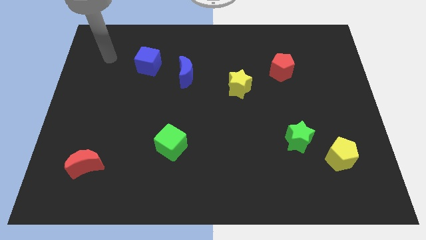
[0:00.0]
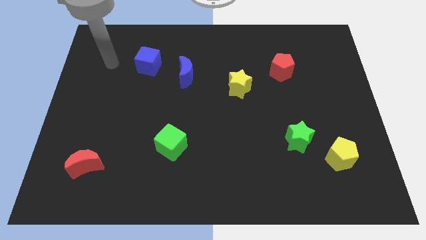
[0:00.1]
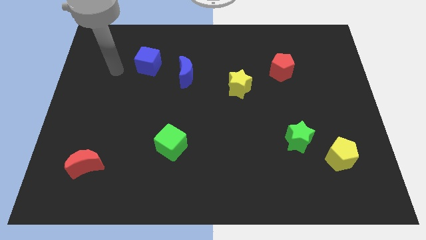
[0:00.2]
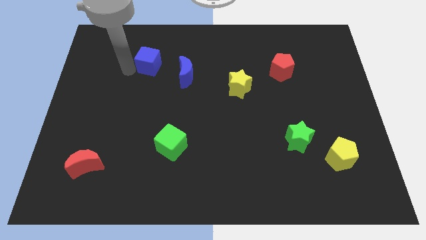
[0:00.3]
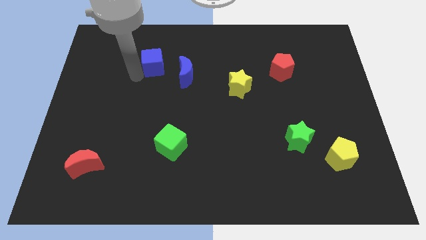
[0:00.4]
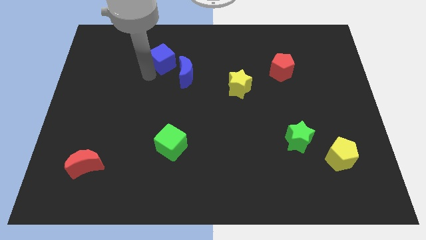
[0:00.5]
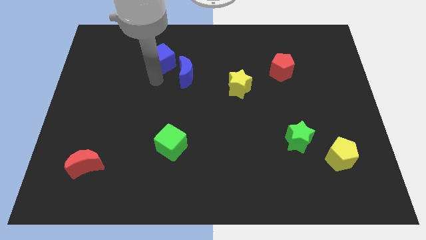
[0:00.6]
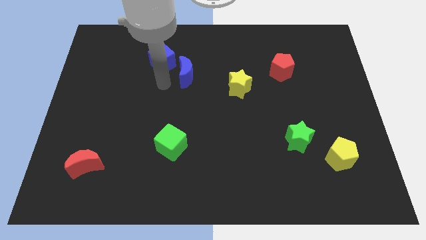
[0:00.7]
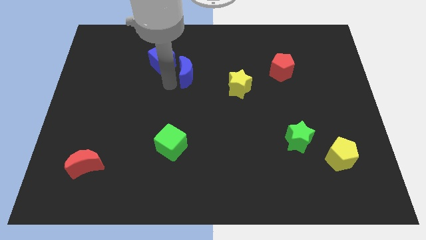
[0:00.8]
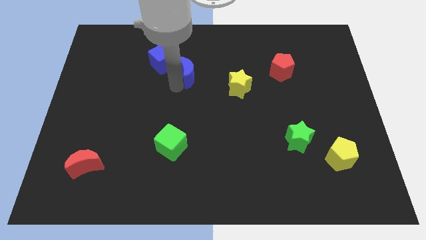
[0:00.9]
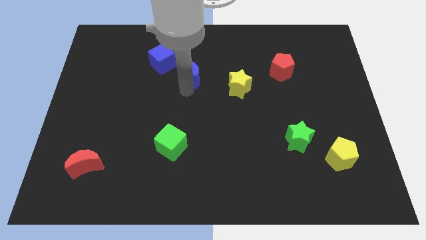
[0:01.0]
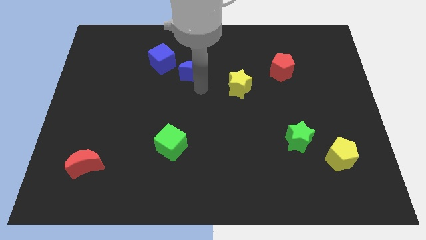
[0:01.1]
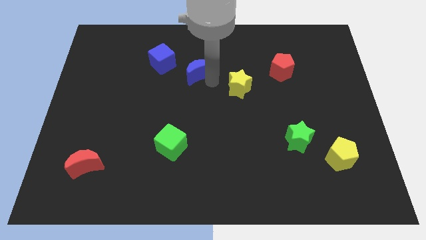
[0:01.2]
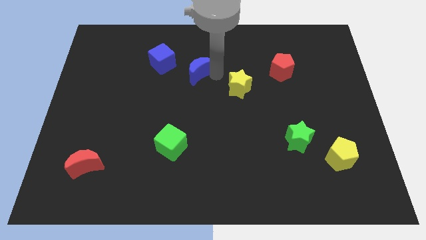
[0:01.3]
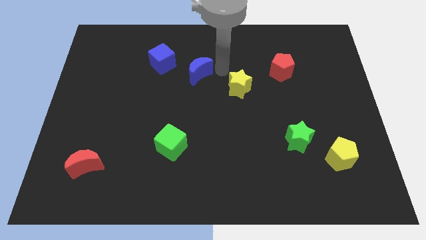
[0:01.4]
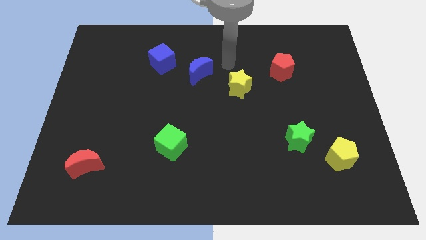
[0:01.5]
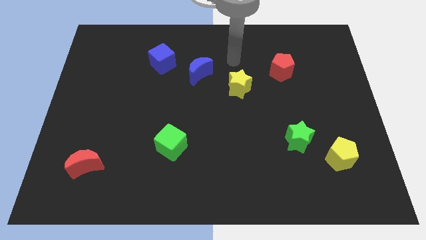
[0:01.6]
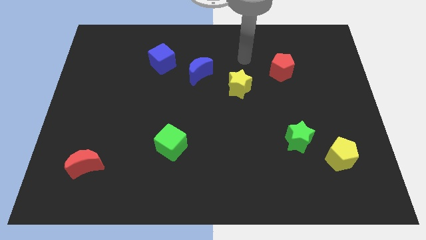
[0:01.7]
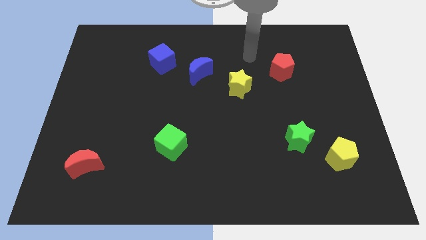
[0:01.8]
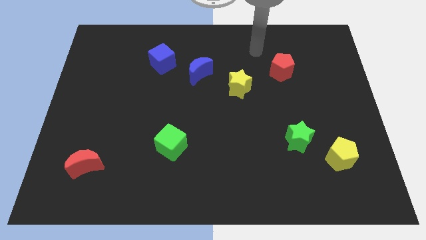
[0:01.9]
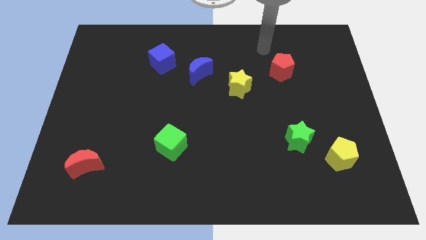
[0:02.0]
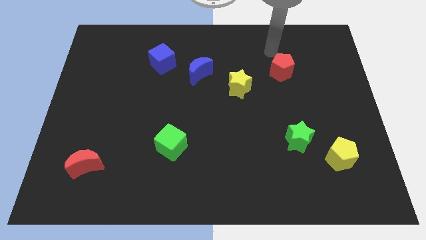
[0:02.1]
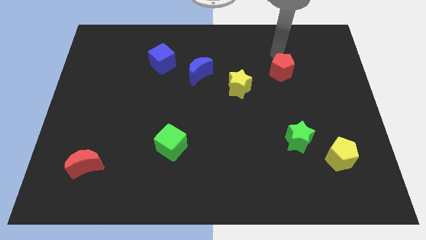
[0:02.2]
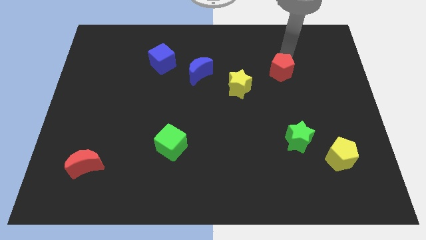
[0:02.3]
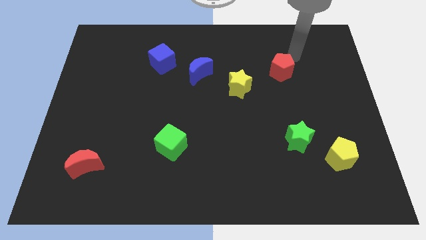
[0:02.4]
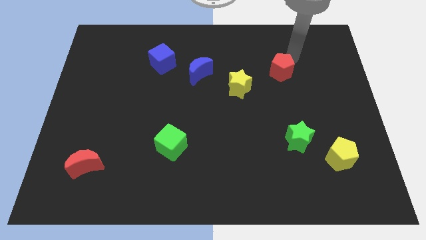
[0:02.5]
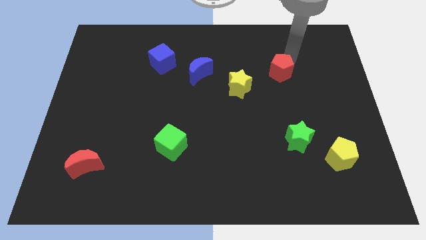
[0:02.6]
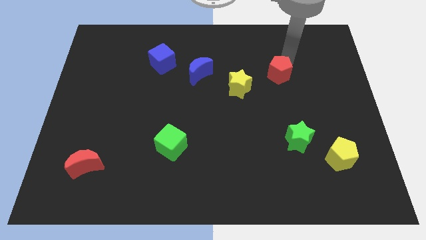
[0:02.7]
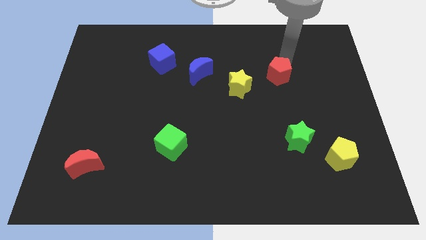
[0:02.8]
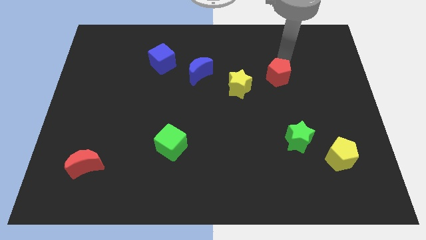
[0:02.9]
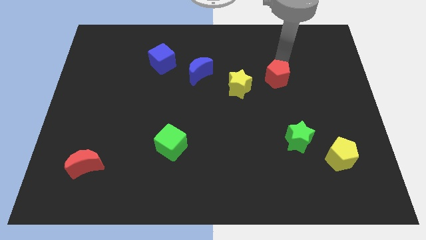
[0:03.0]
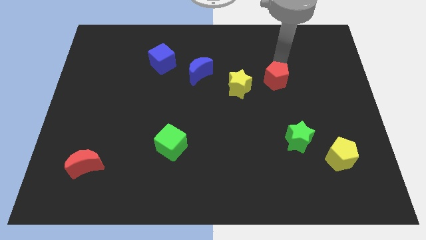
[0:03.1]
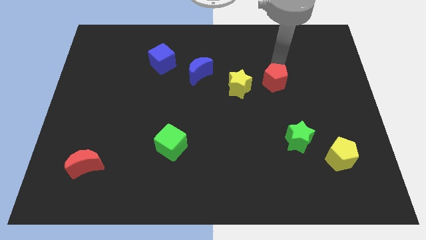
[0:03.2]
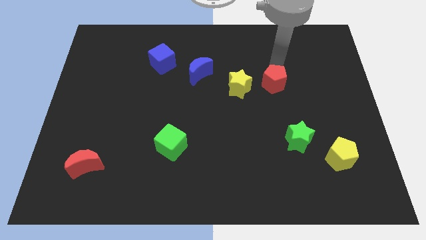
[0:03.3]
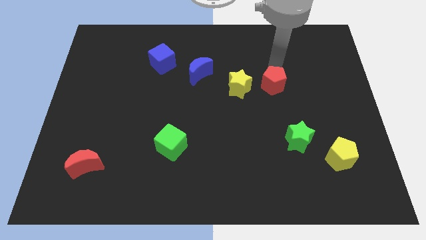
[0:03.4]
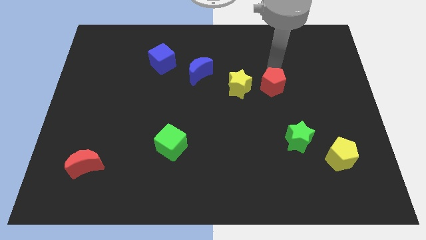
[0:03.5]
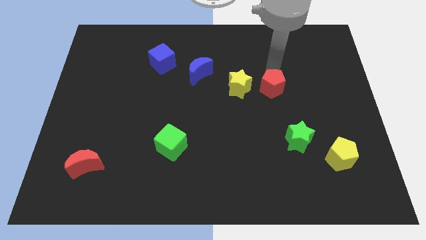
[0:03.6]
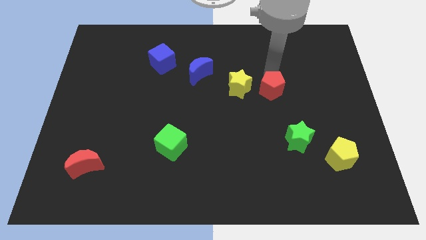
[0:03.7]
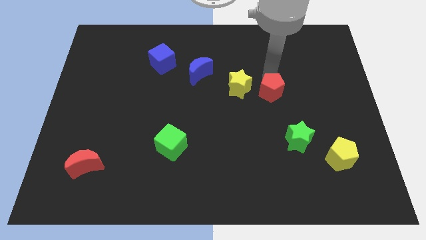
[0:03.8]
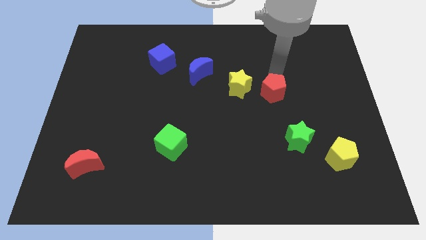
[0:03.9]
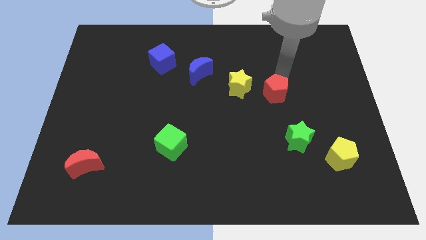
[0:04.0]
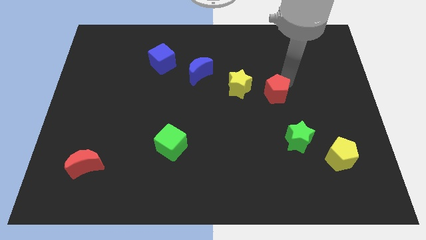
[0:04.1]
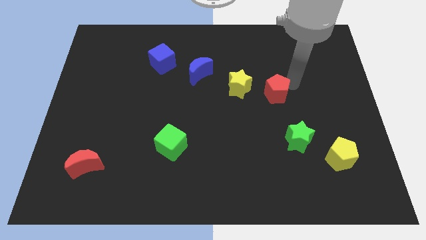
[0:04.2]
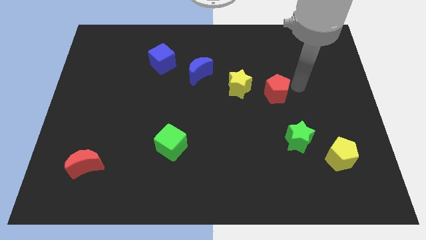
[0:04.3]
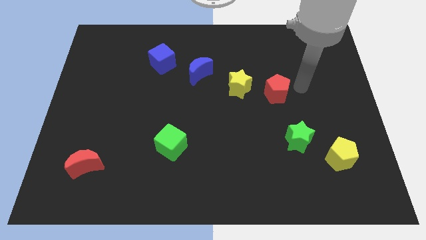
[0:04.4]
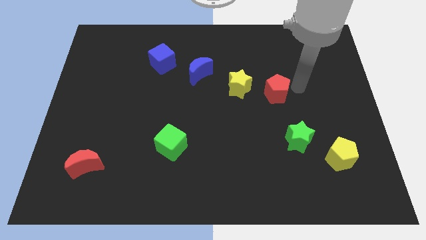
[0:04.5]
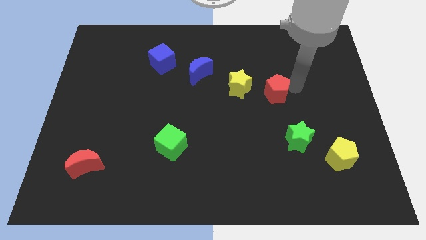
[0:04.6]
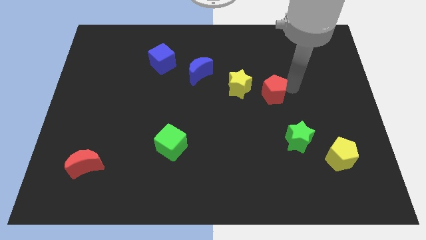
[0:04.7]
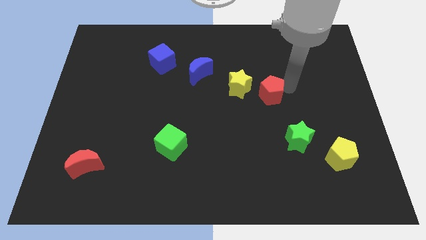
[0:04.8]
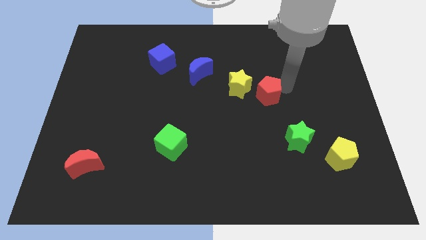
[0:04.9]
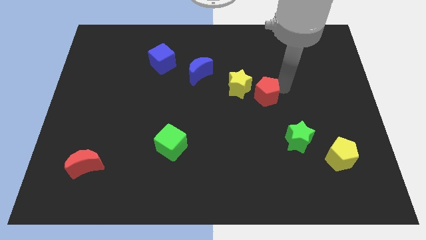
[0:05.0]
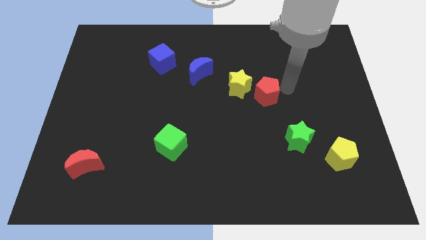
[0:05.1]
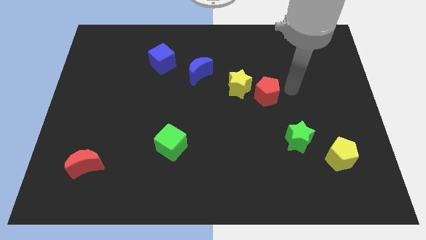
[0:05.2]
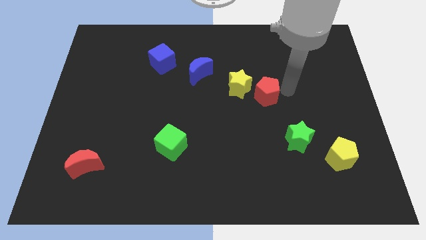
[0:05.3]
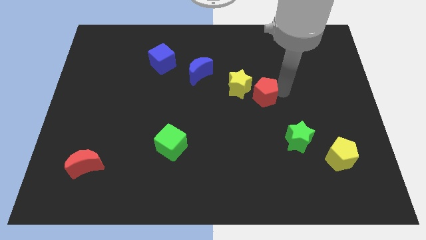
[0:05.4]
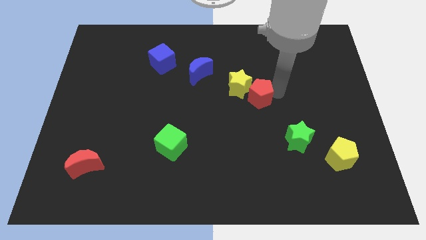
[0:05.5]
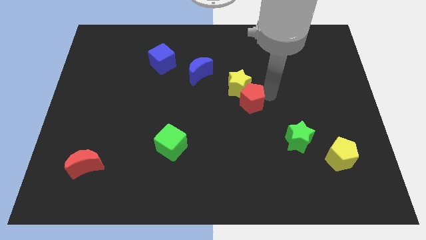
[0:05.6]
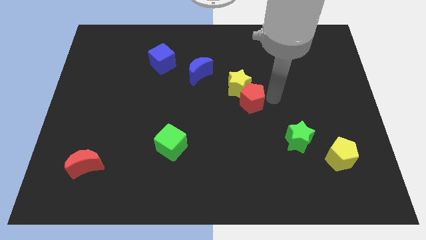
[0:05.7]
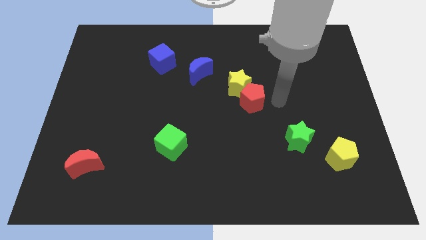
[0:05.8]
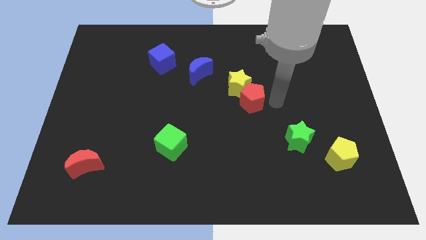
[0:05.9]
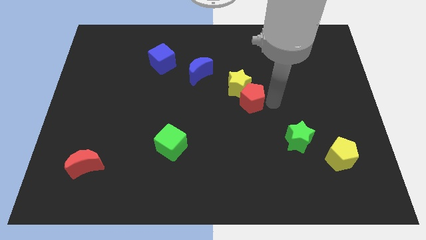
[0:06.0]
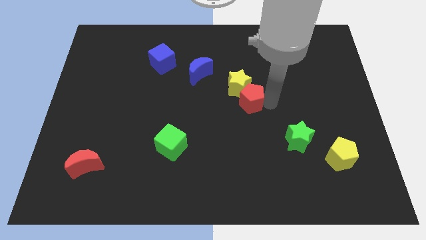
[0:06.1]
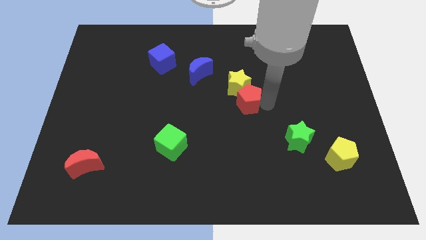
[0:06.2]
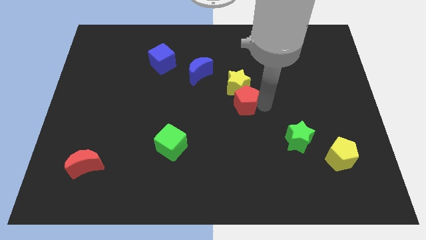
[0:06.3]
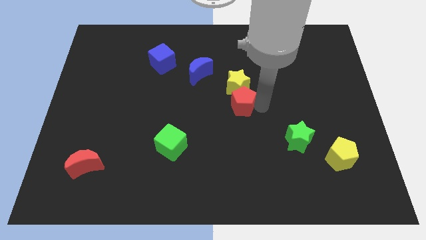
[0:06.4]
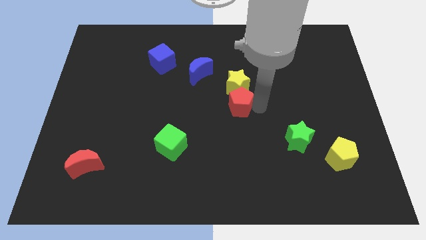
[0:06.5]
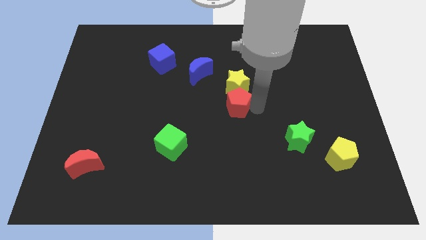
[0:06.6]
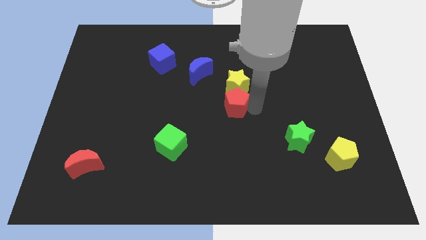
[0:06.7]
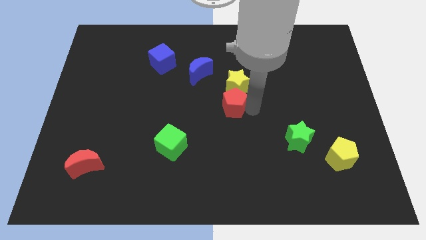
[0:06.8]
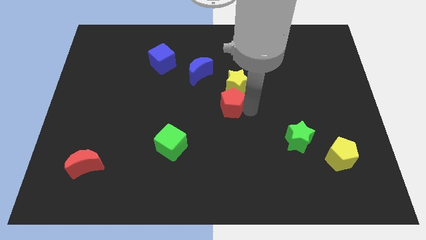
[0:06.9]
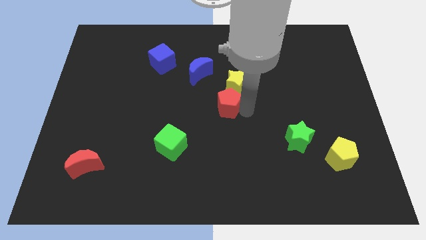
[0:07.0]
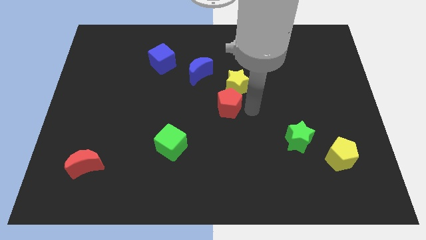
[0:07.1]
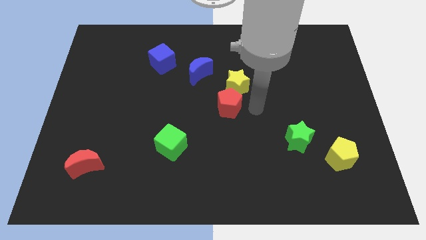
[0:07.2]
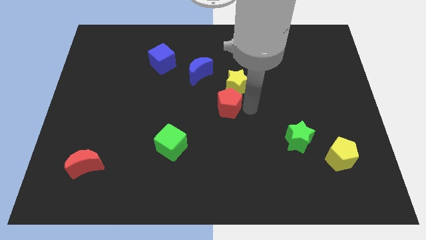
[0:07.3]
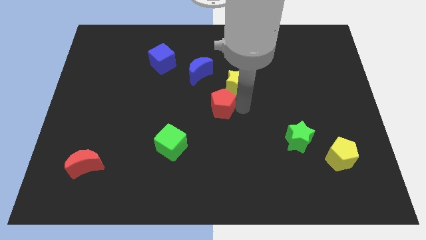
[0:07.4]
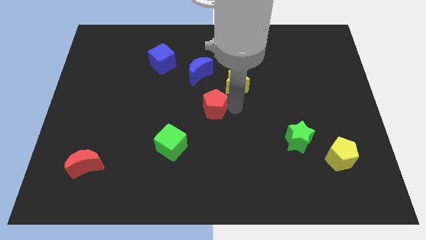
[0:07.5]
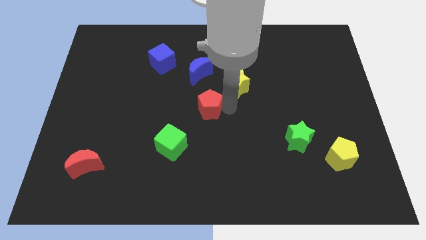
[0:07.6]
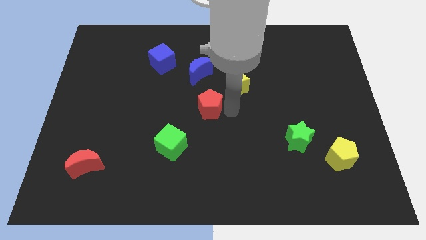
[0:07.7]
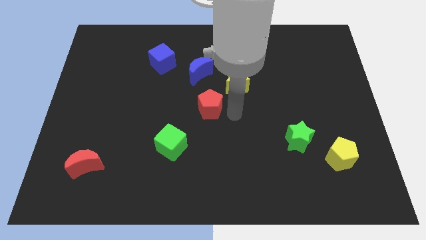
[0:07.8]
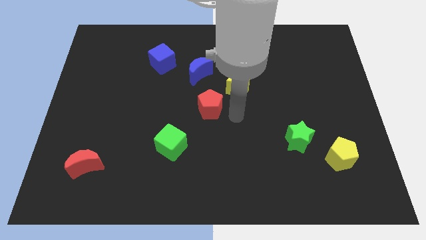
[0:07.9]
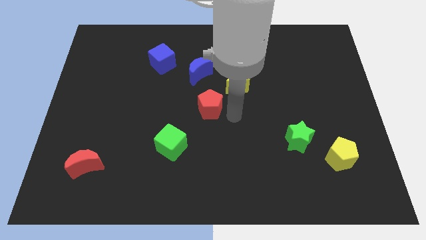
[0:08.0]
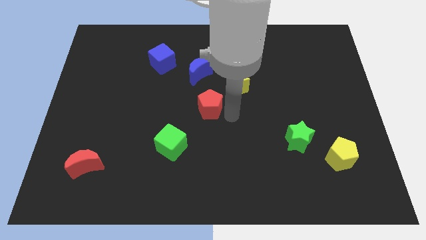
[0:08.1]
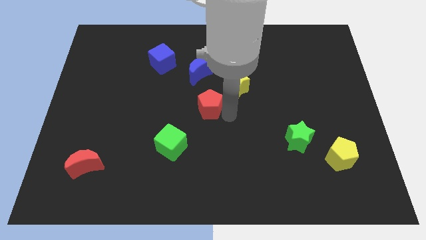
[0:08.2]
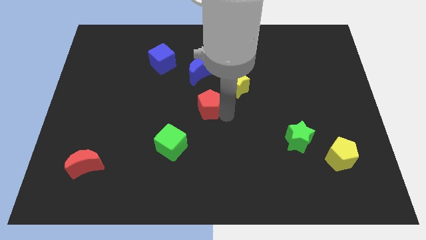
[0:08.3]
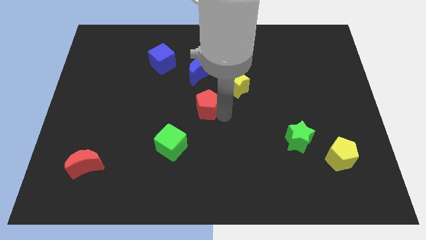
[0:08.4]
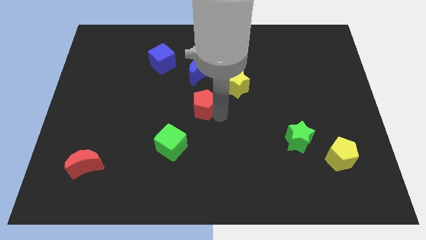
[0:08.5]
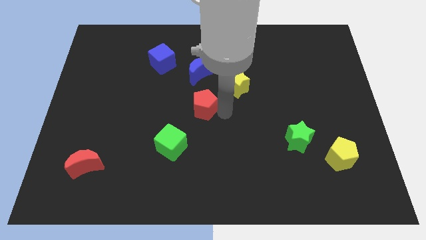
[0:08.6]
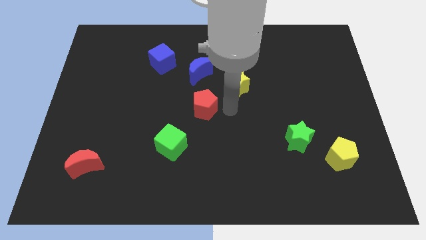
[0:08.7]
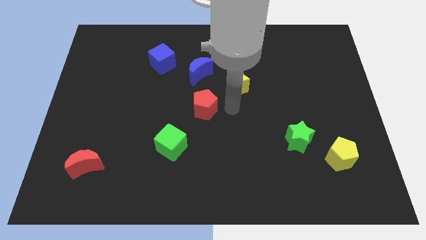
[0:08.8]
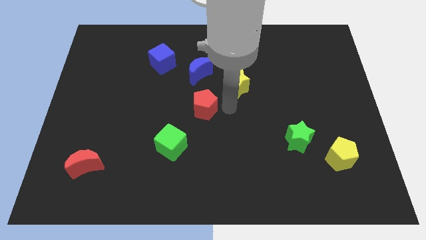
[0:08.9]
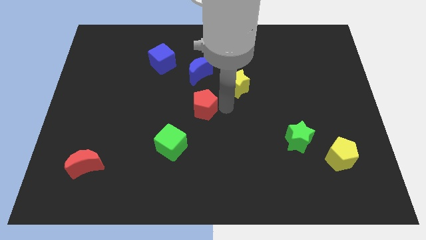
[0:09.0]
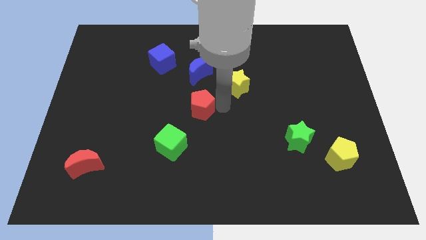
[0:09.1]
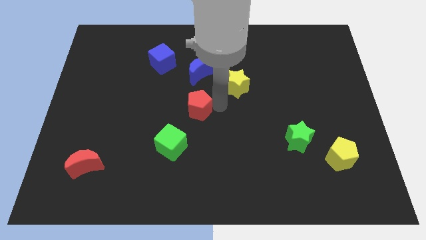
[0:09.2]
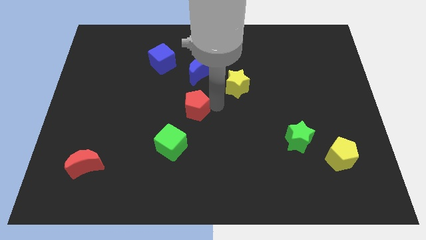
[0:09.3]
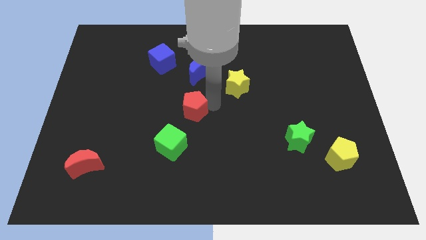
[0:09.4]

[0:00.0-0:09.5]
put the red pentagon to the top side of the green cube
